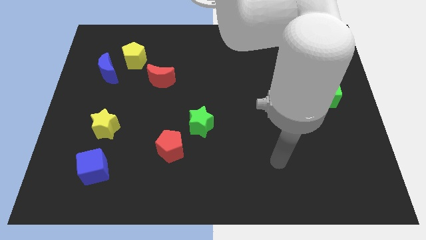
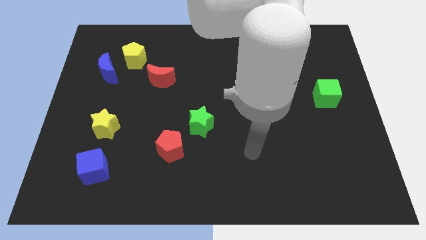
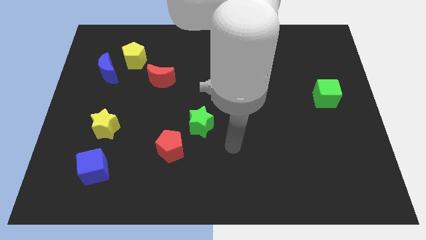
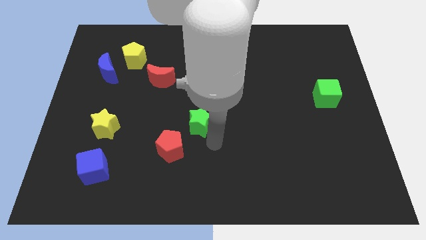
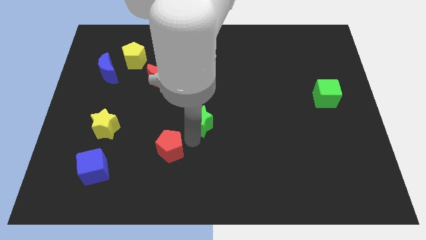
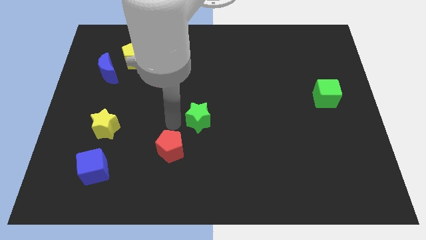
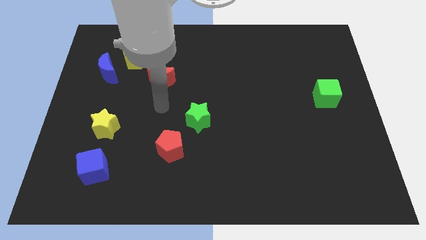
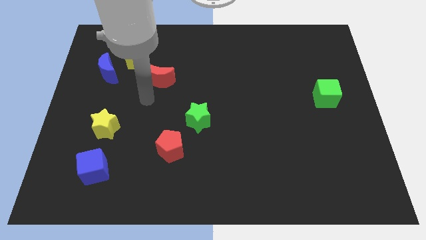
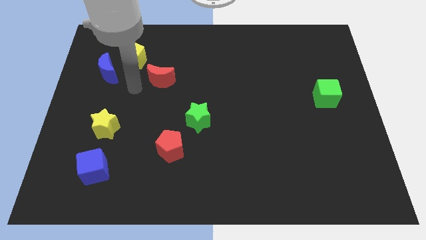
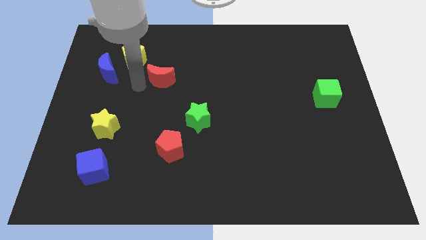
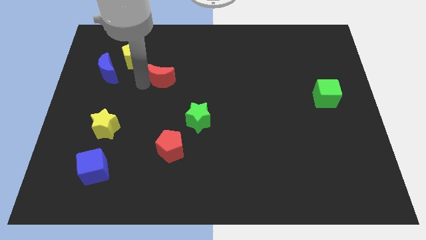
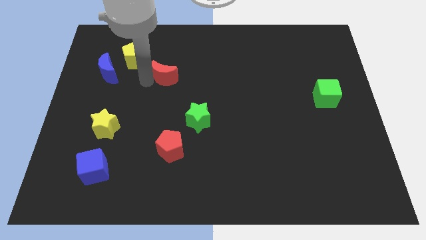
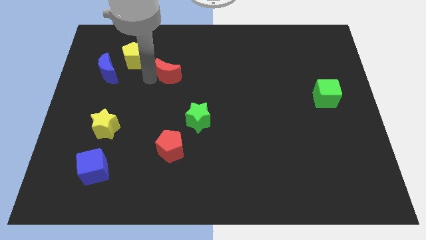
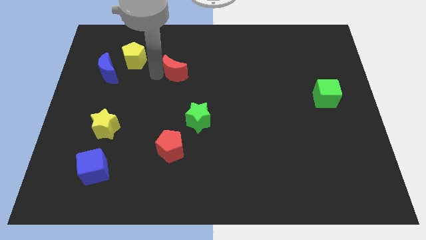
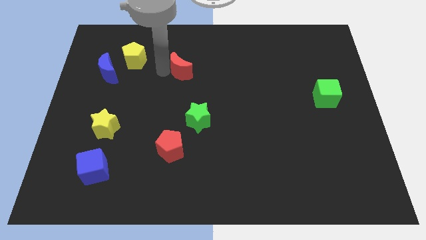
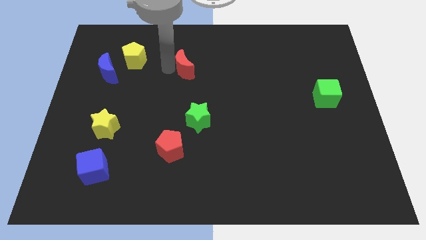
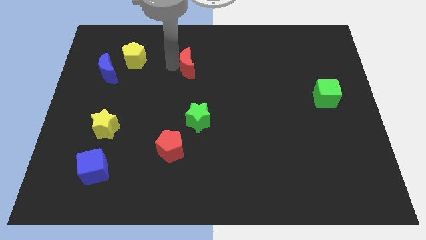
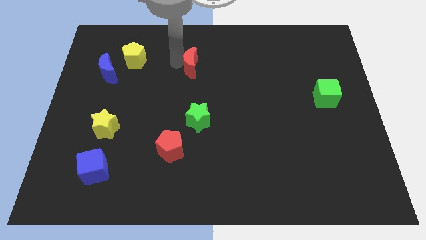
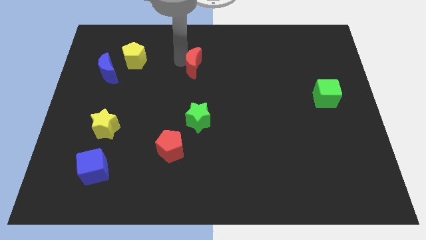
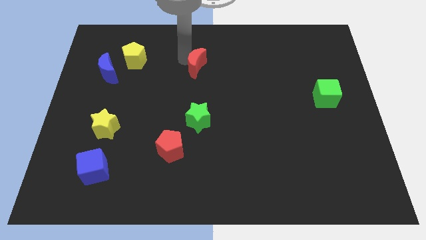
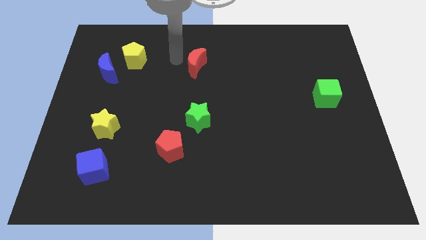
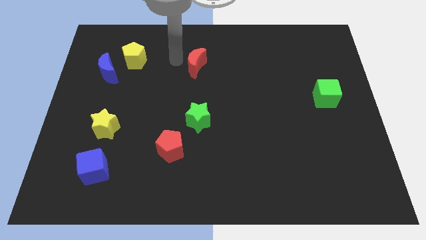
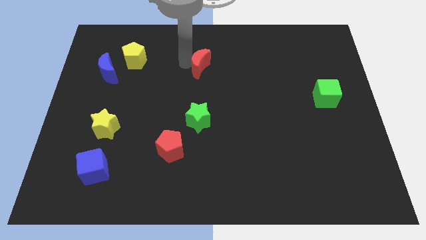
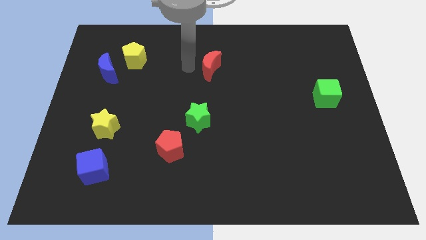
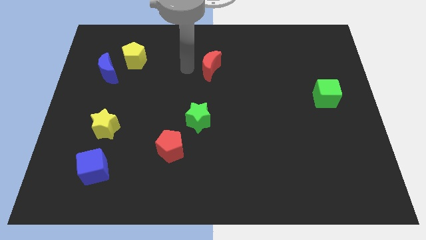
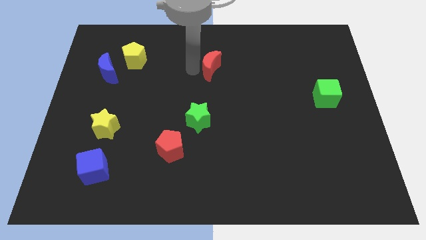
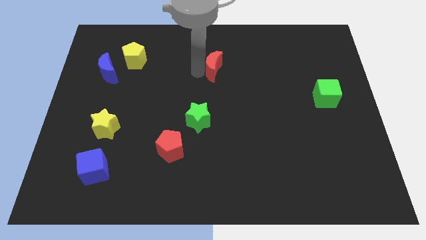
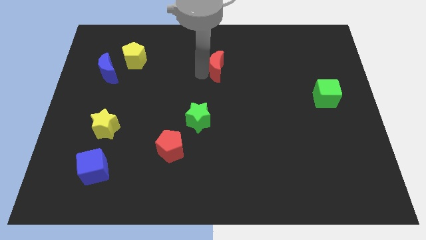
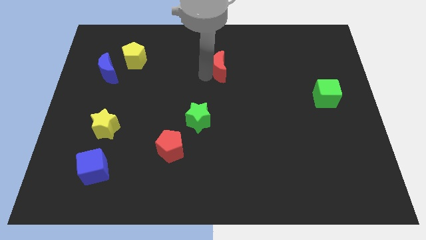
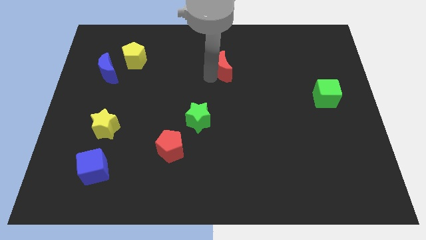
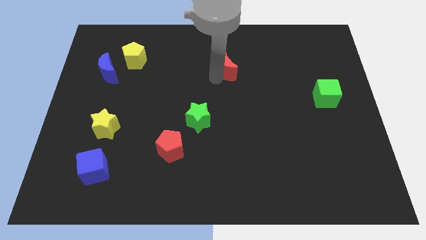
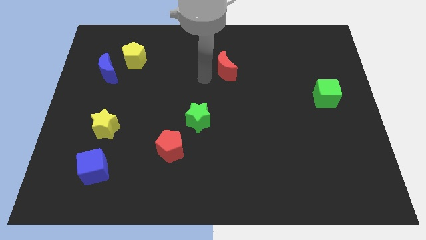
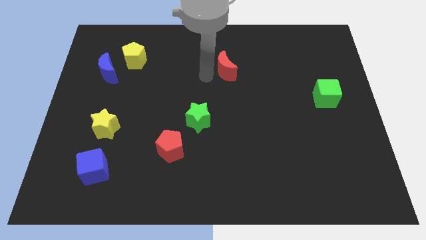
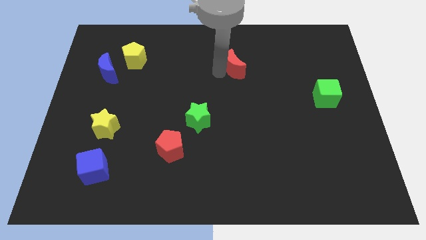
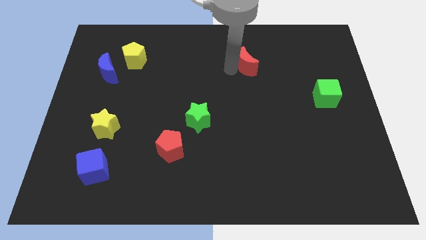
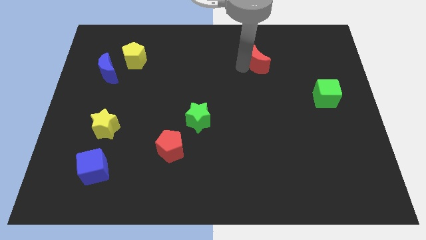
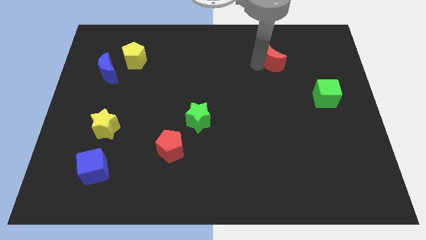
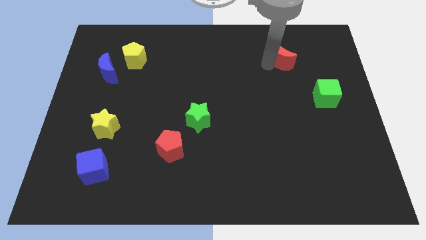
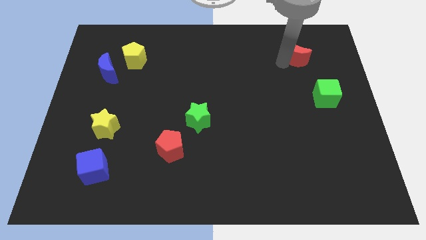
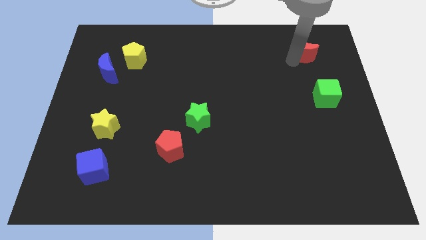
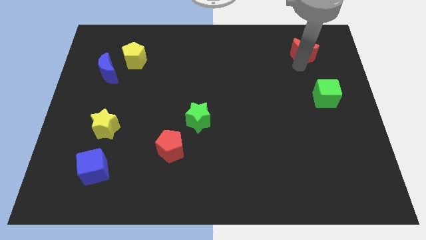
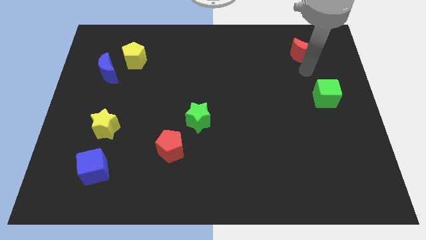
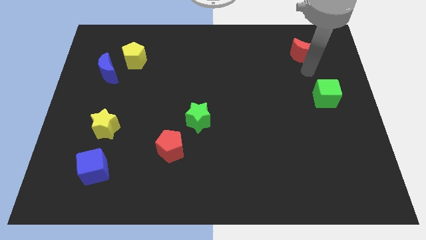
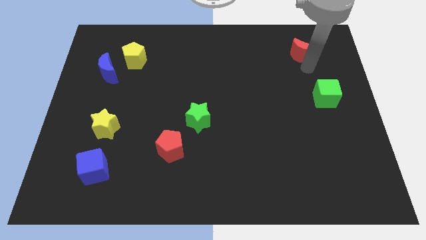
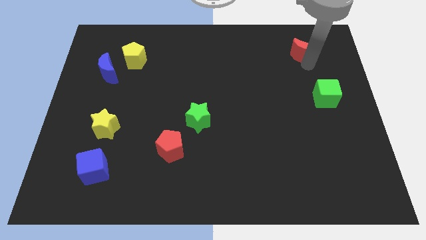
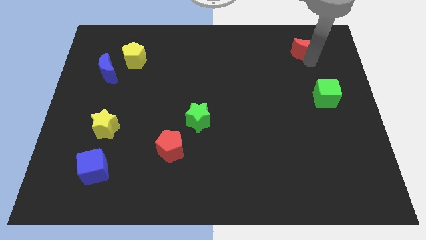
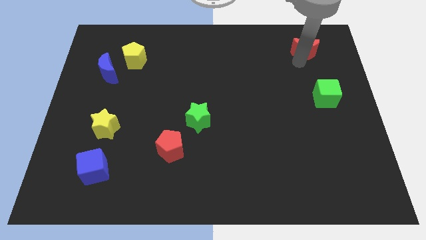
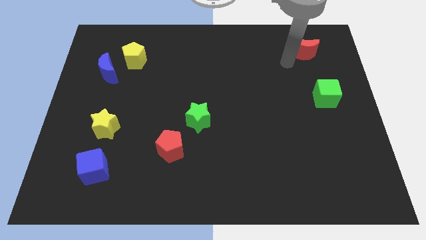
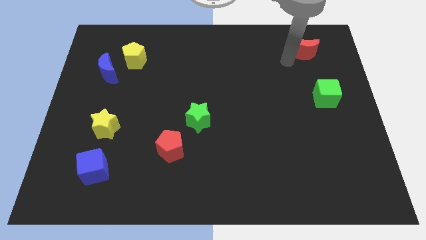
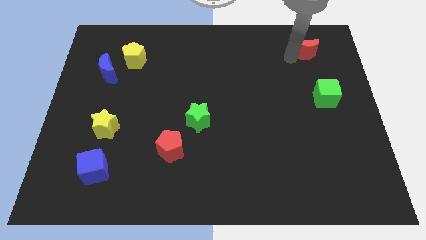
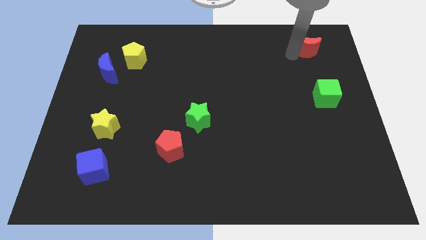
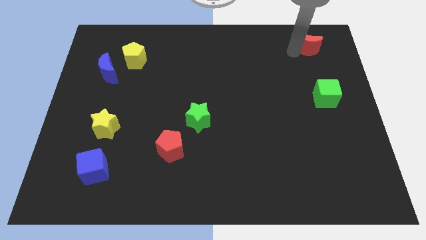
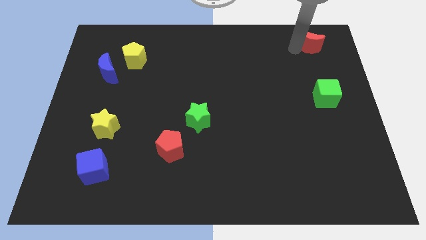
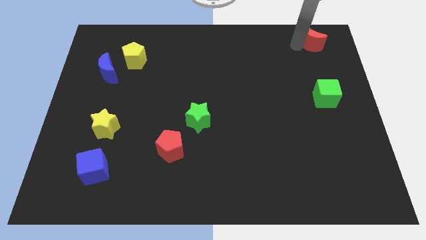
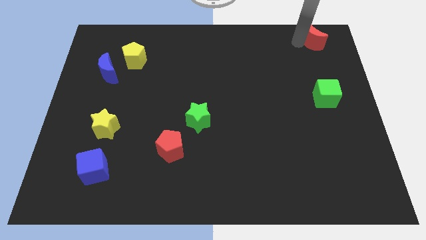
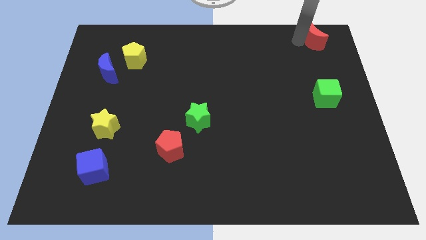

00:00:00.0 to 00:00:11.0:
put the red moon to the top right of the board

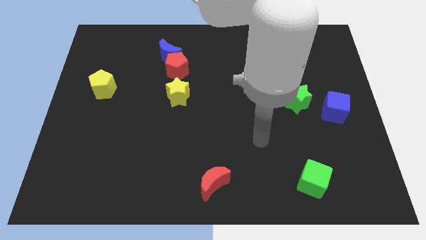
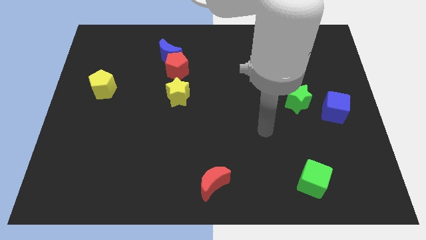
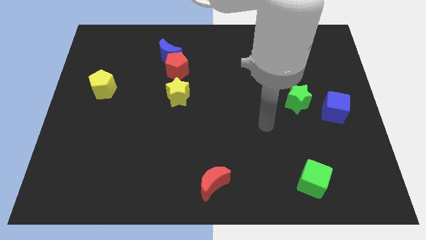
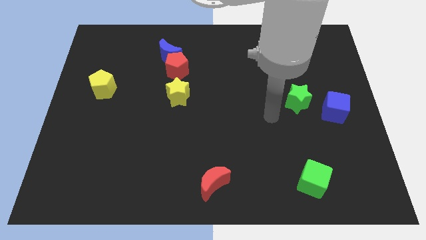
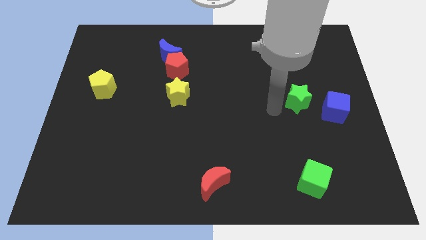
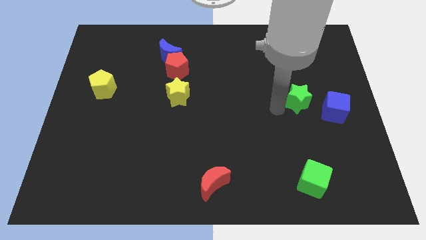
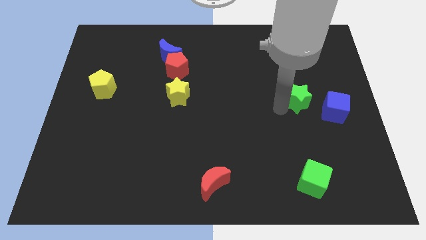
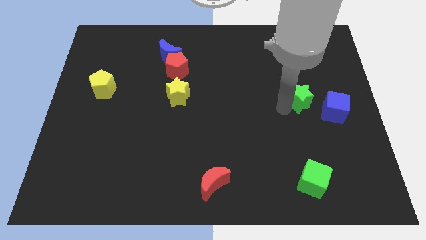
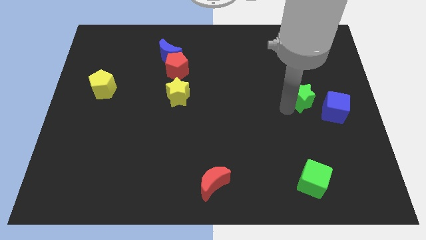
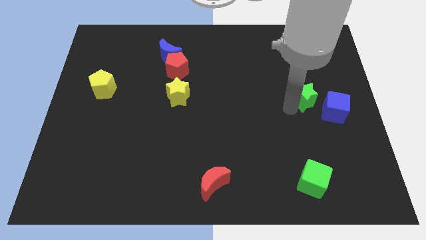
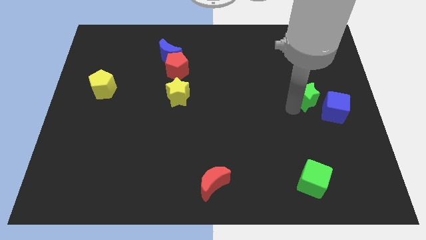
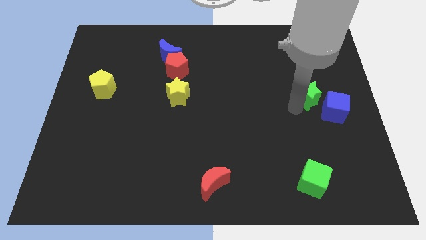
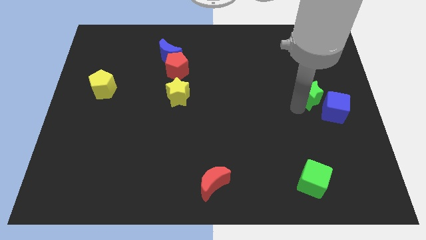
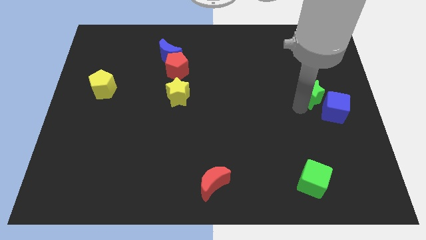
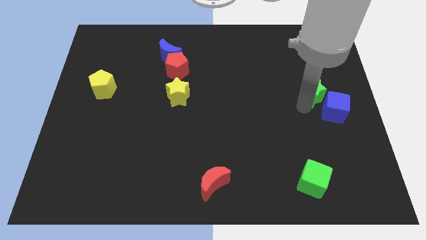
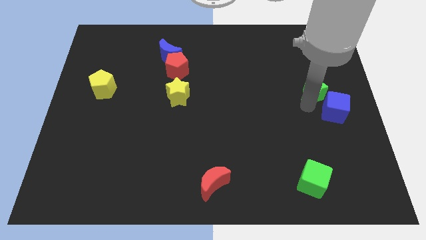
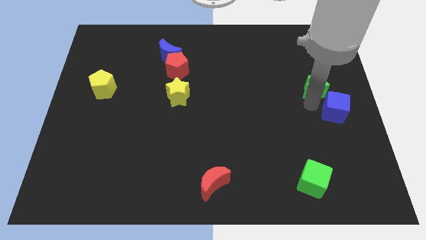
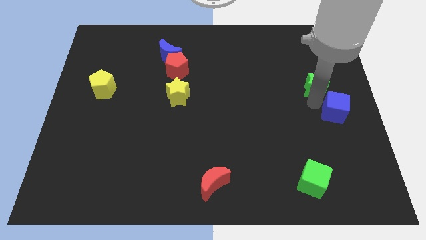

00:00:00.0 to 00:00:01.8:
push the green star to the center right
